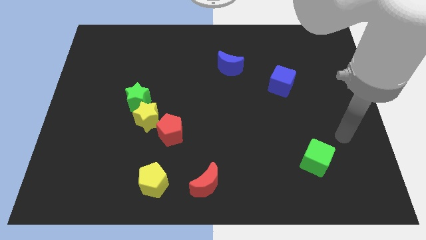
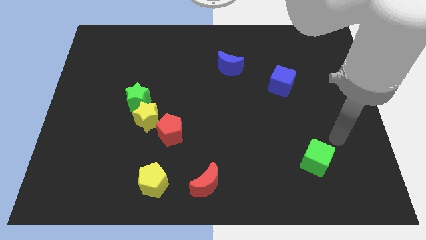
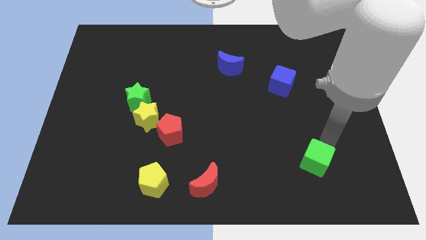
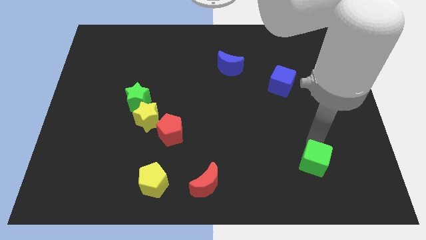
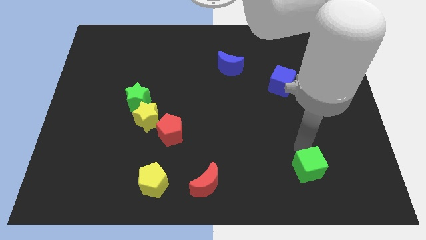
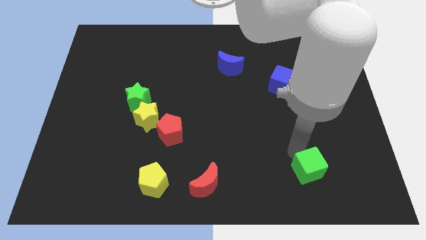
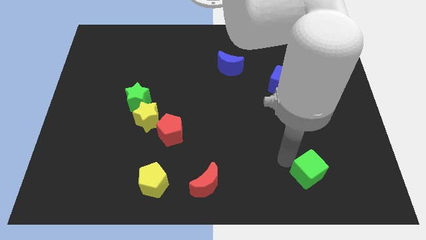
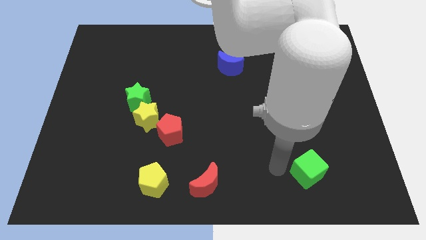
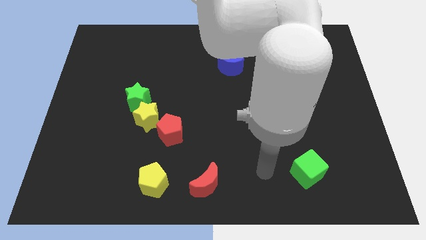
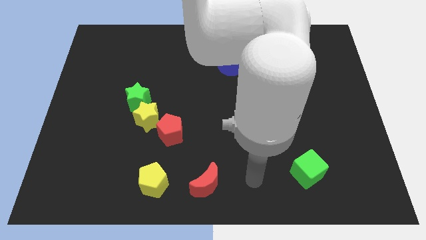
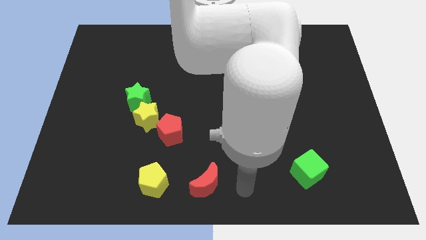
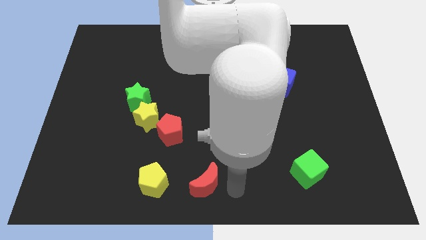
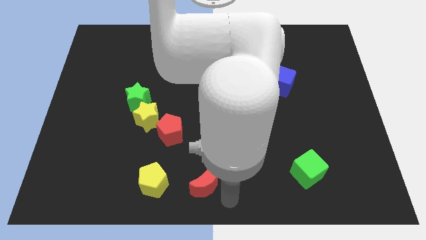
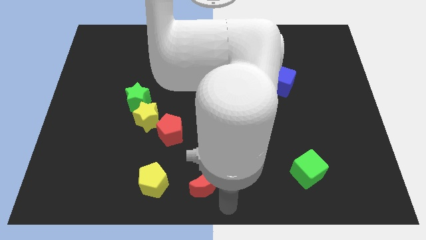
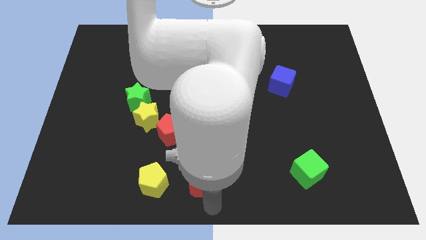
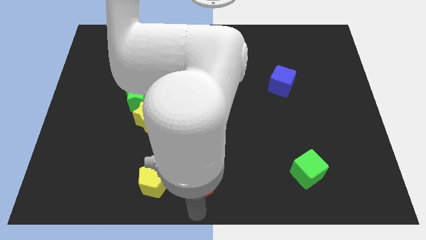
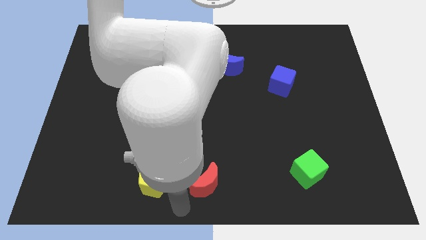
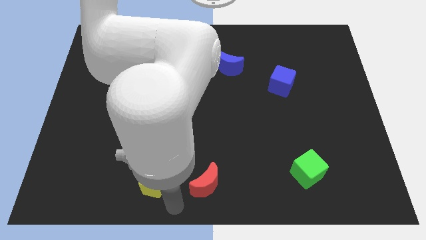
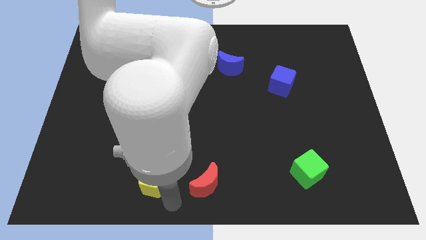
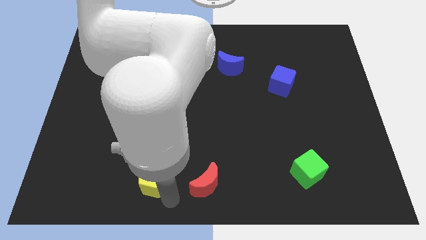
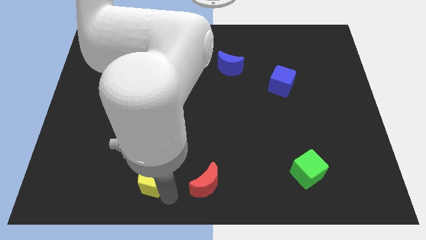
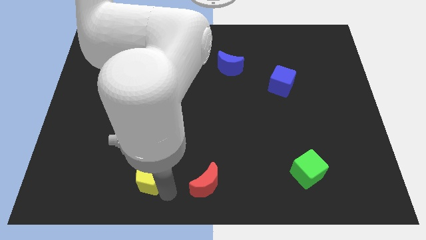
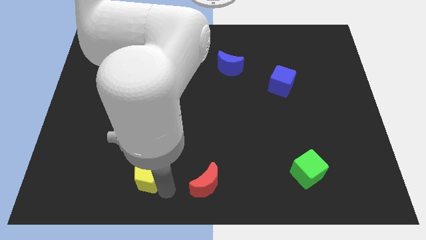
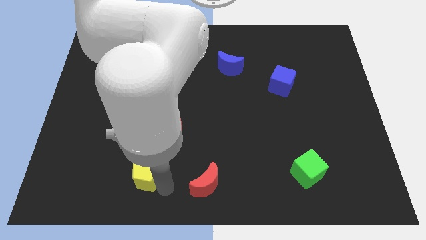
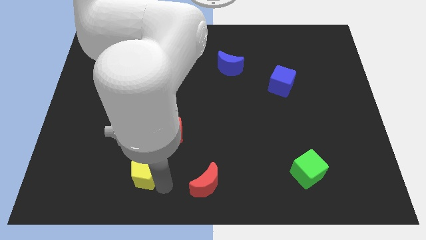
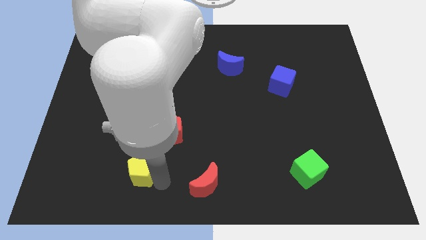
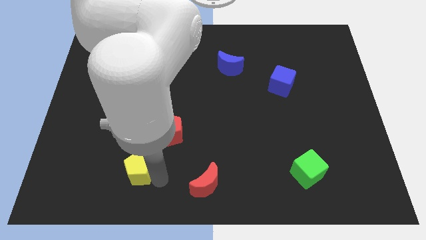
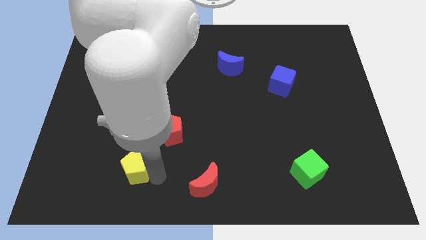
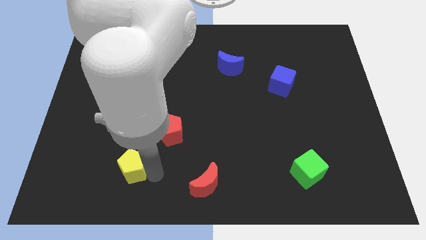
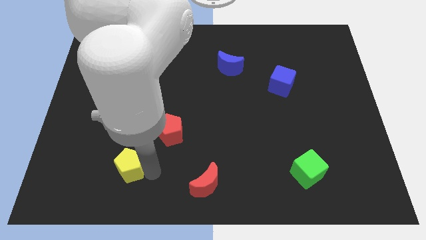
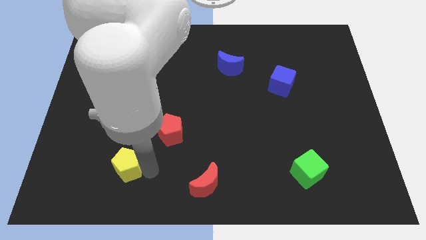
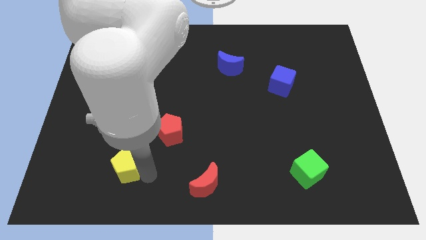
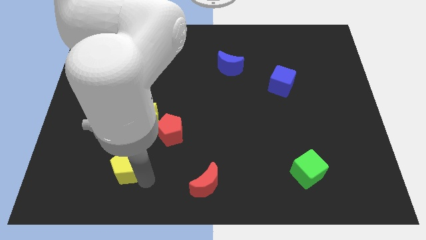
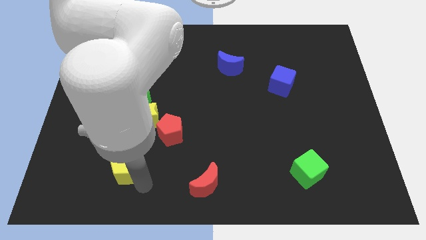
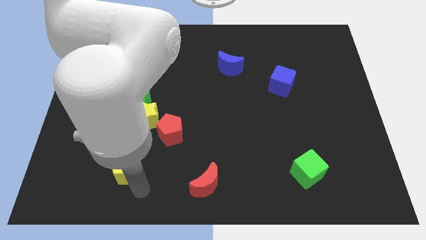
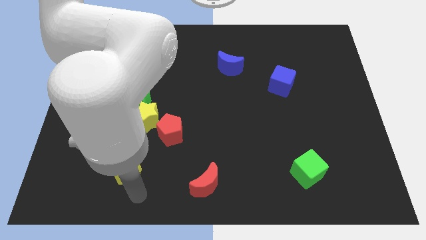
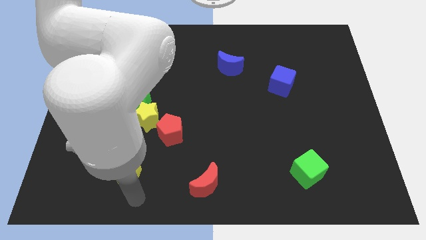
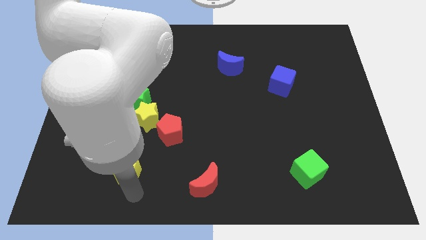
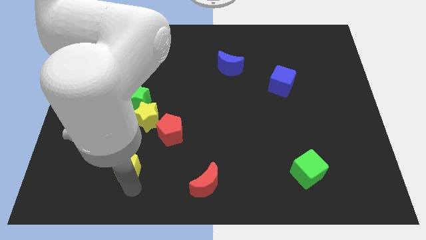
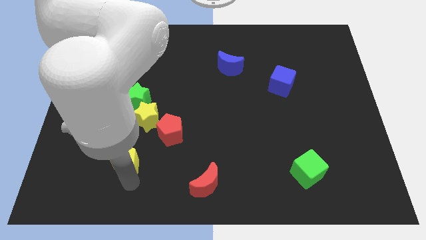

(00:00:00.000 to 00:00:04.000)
slide the yellow pentagon up and then to the left a little bit

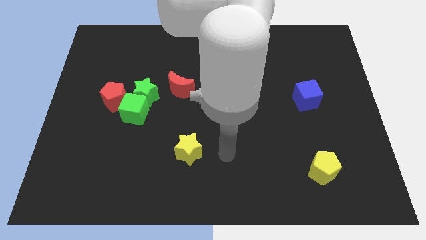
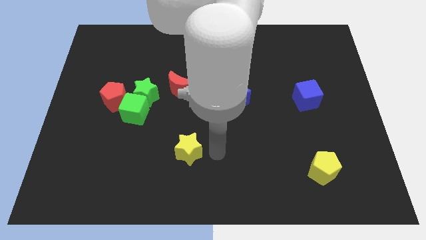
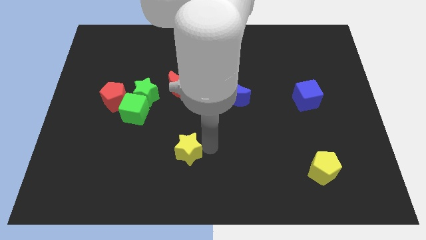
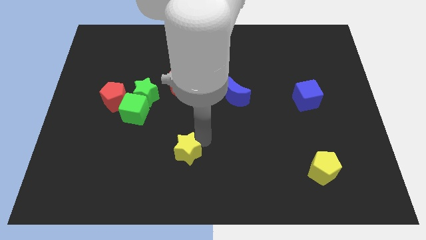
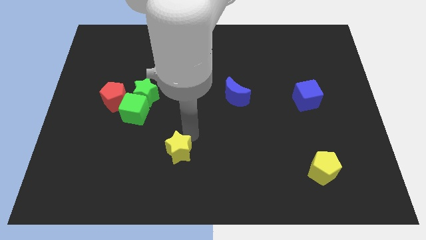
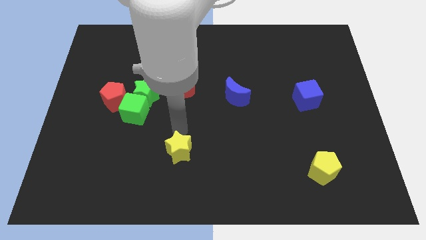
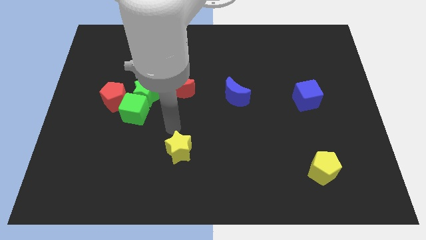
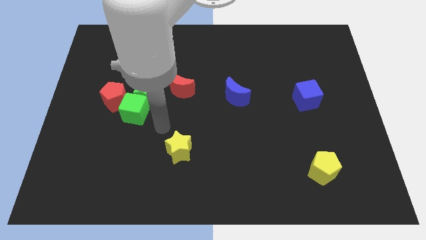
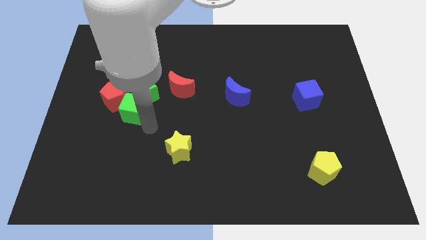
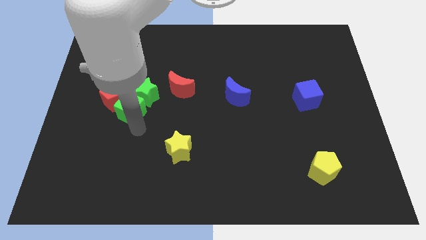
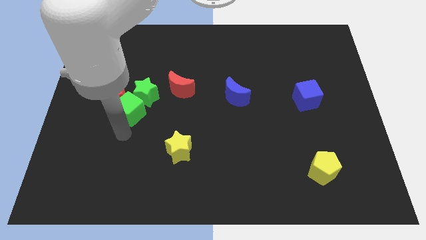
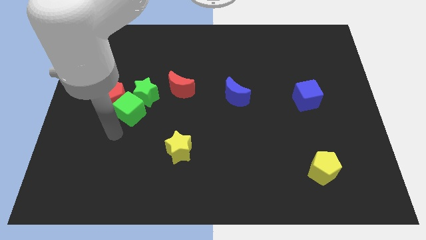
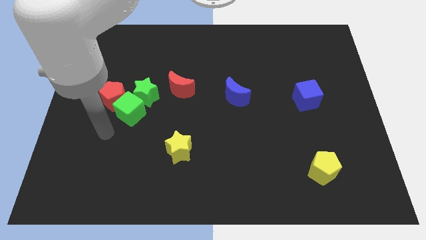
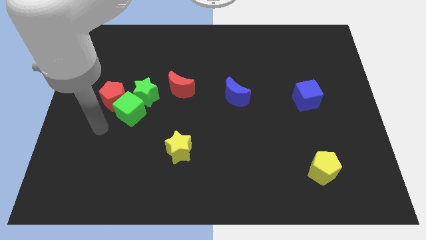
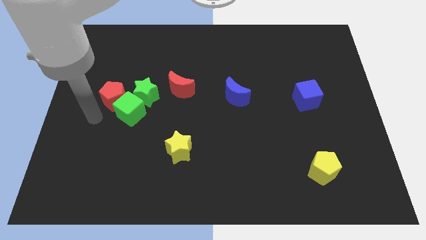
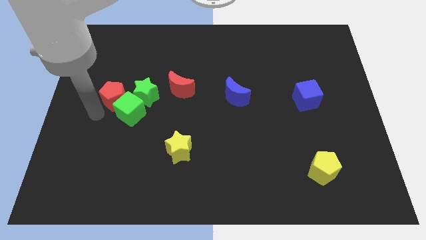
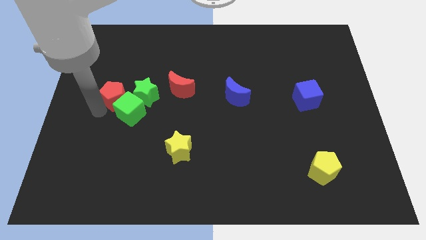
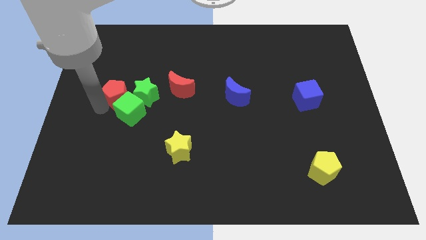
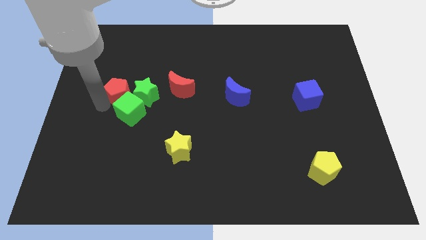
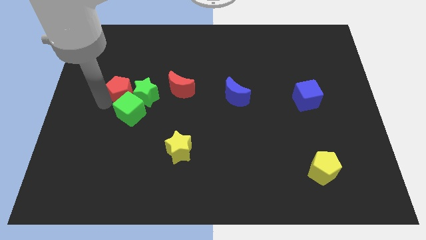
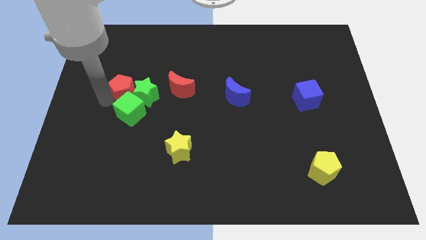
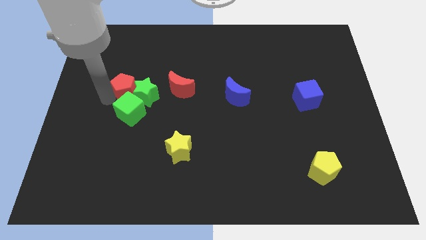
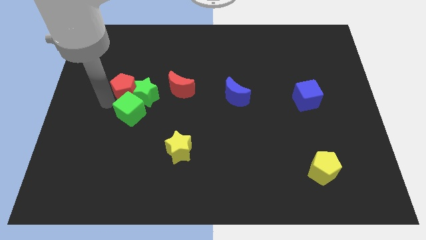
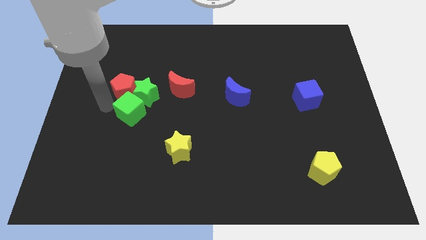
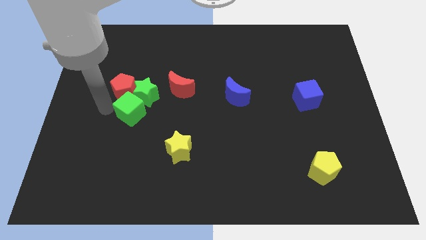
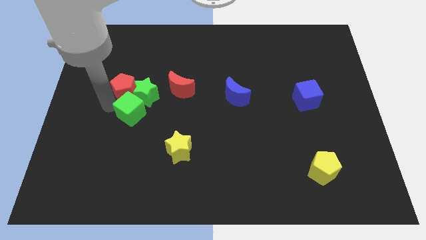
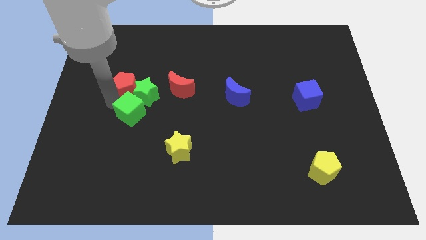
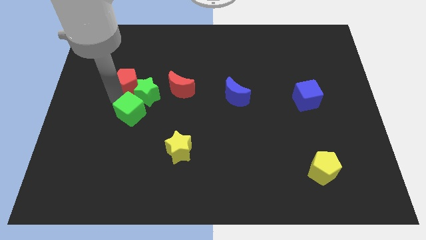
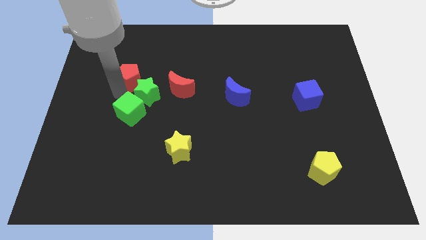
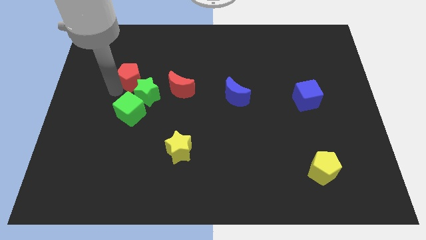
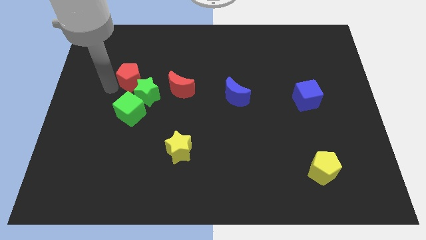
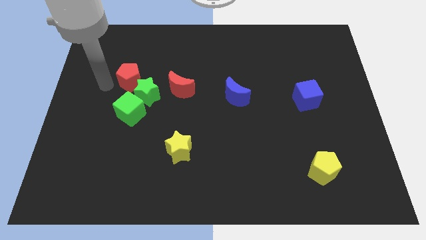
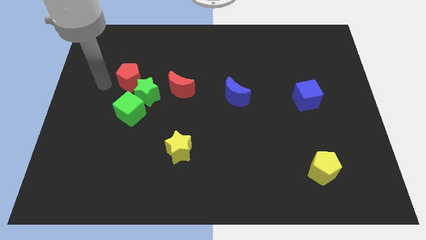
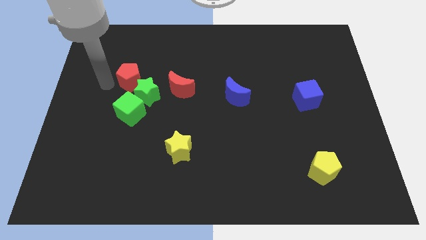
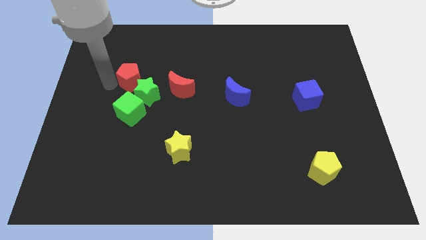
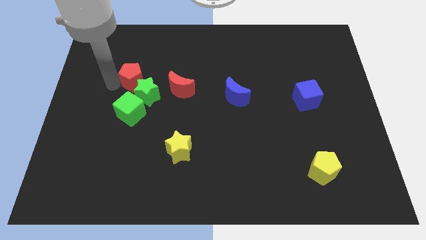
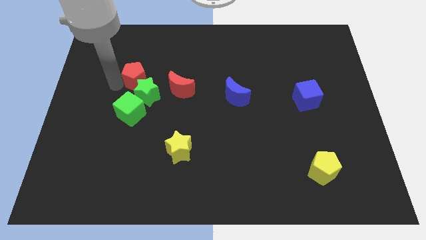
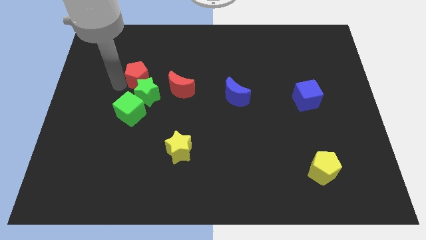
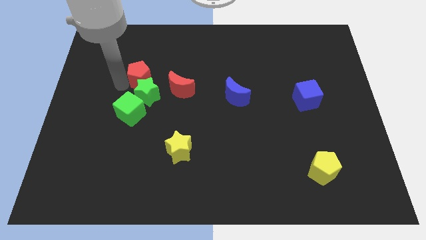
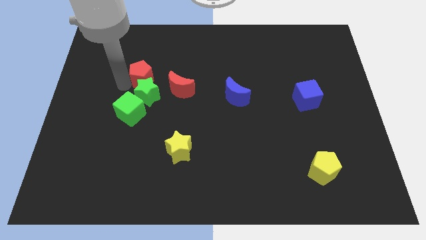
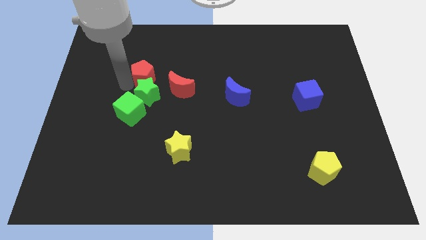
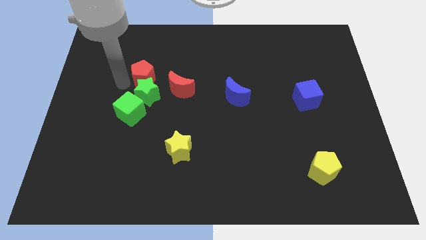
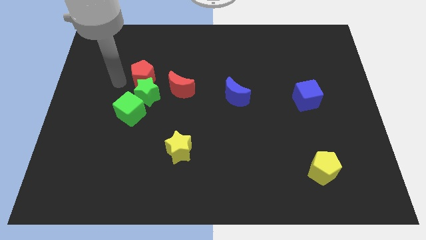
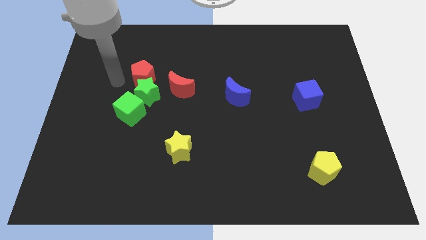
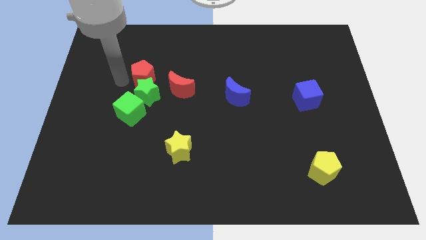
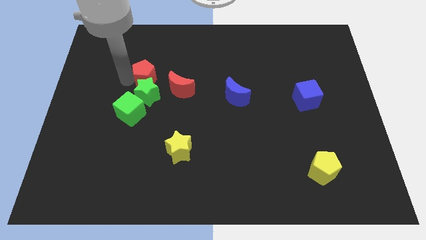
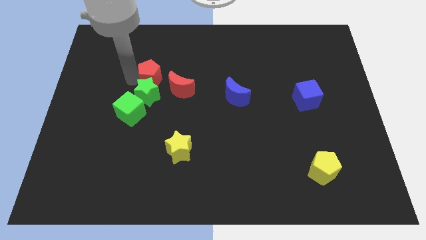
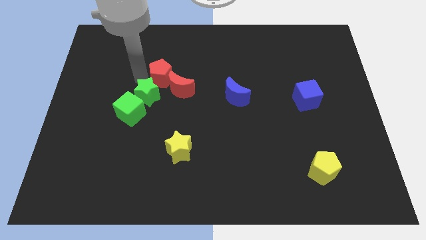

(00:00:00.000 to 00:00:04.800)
slightly slide the red pentagon to the right
